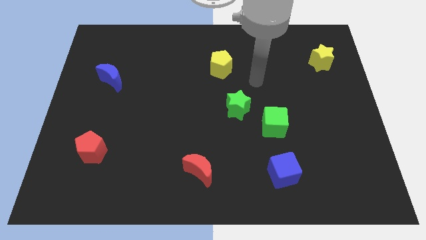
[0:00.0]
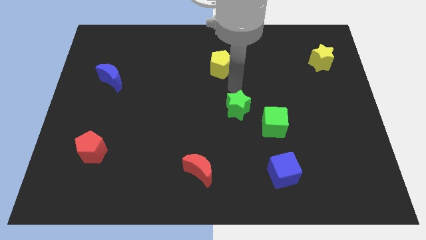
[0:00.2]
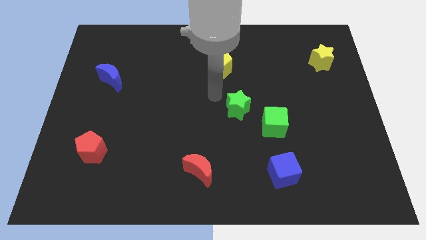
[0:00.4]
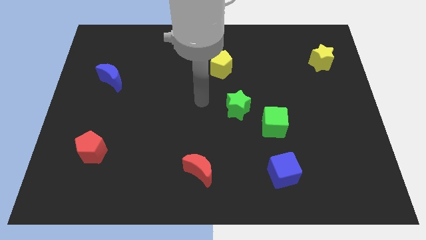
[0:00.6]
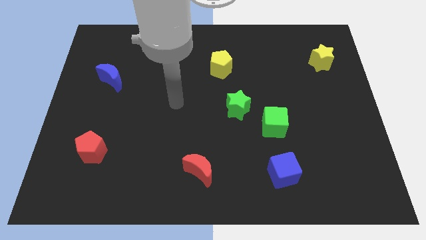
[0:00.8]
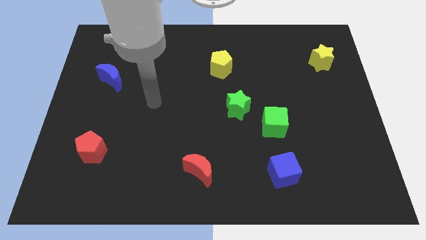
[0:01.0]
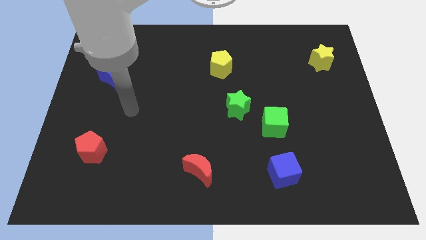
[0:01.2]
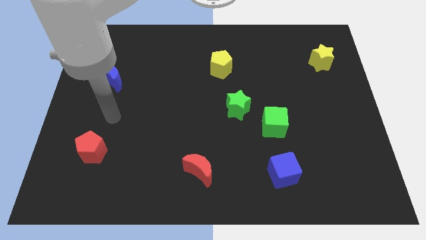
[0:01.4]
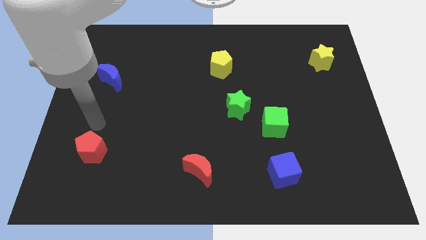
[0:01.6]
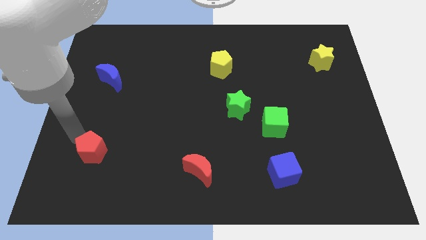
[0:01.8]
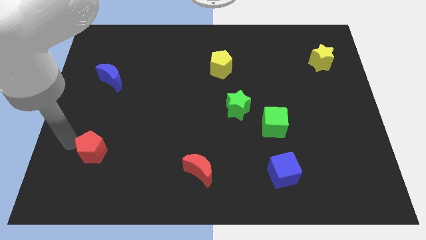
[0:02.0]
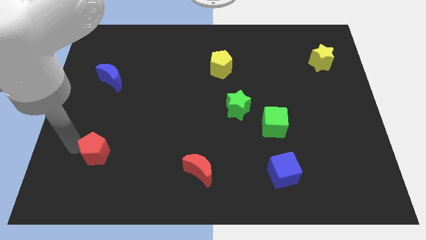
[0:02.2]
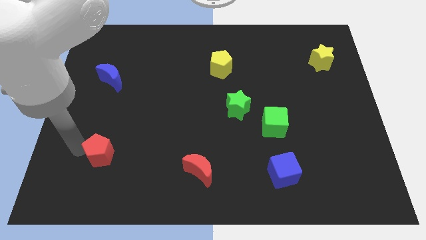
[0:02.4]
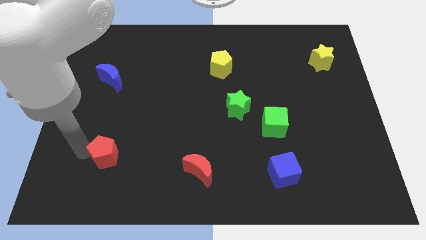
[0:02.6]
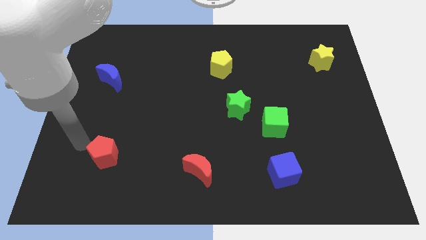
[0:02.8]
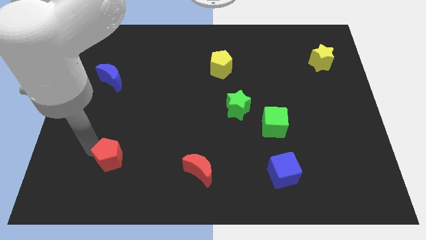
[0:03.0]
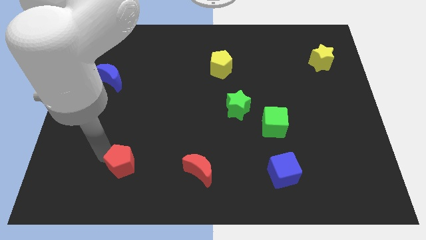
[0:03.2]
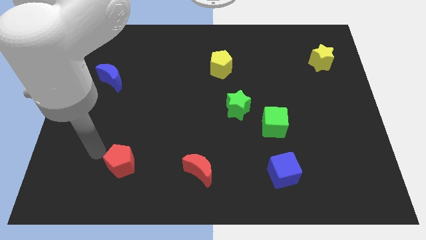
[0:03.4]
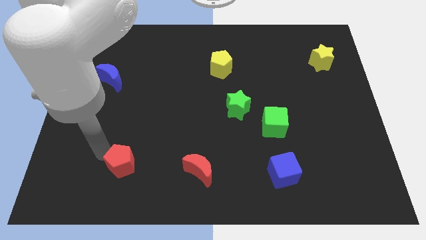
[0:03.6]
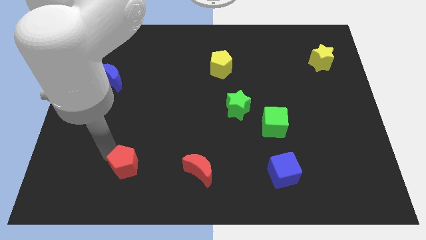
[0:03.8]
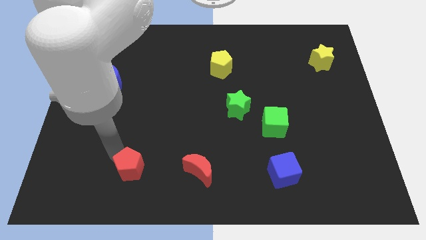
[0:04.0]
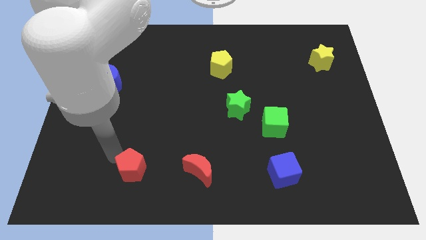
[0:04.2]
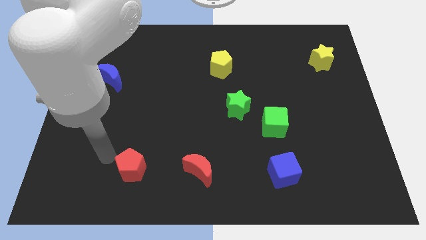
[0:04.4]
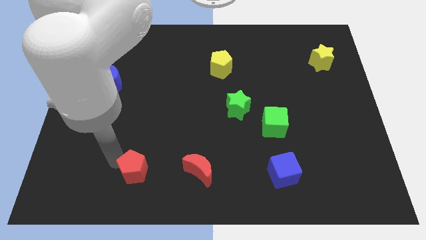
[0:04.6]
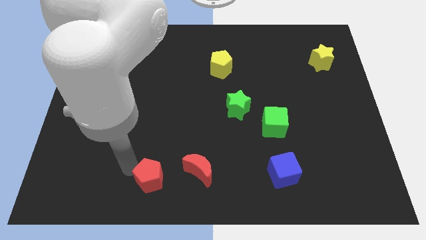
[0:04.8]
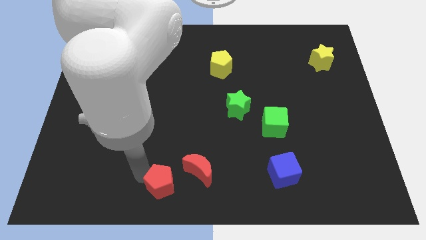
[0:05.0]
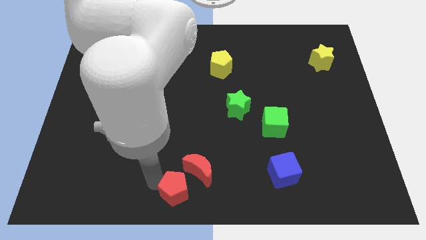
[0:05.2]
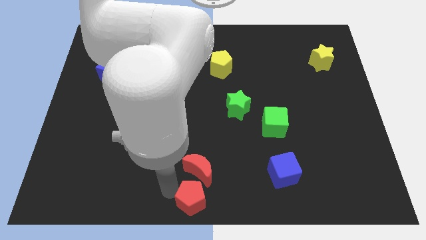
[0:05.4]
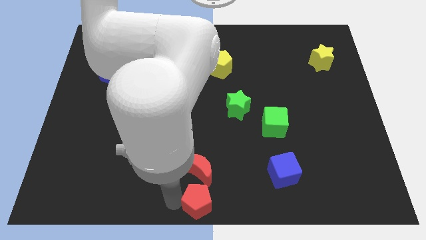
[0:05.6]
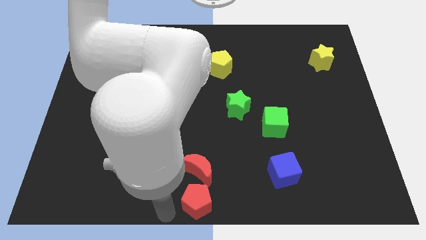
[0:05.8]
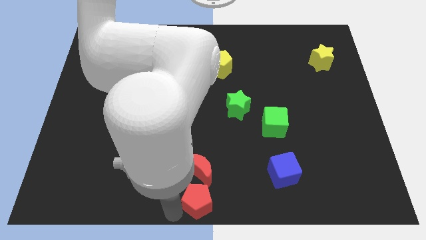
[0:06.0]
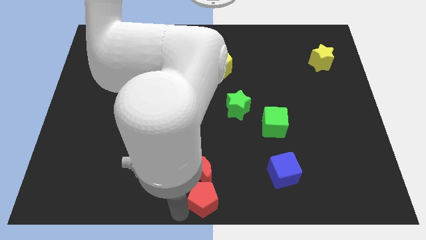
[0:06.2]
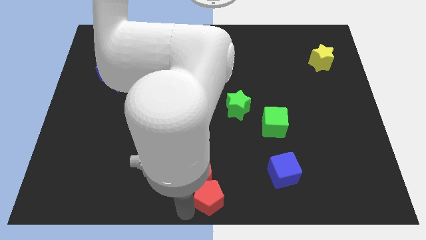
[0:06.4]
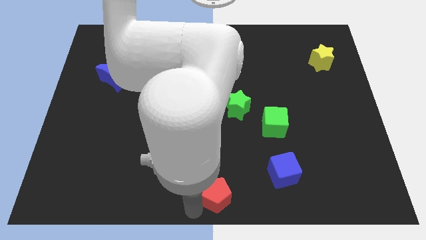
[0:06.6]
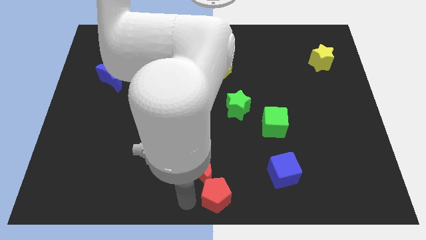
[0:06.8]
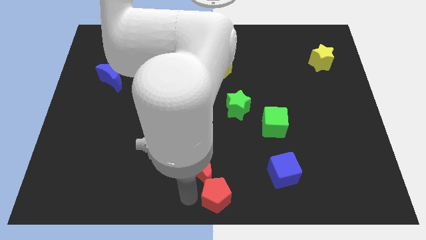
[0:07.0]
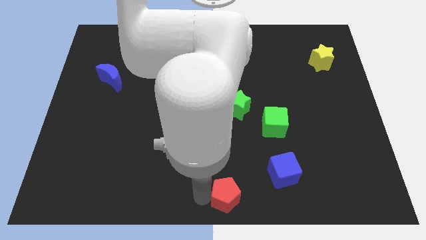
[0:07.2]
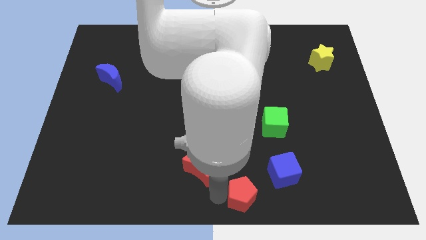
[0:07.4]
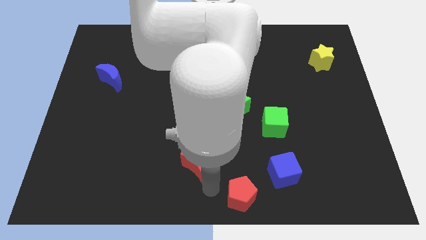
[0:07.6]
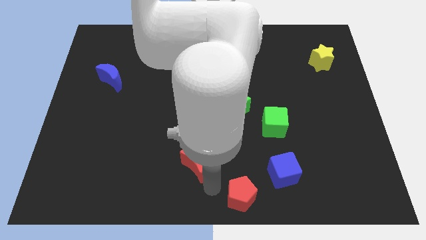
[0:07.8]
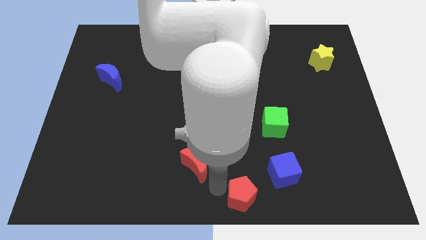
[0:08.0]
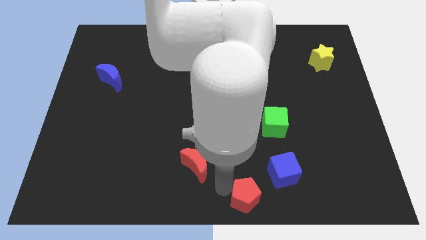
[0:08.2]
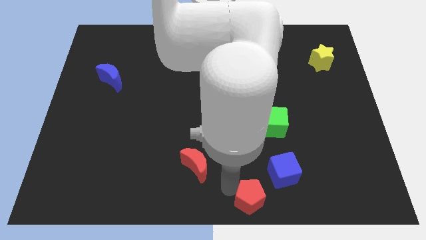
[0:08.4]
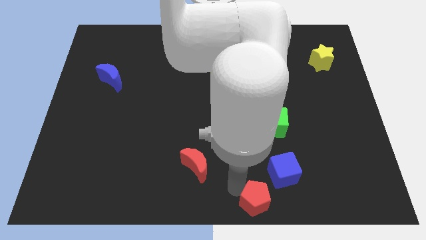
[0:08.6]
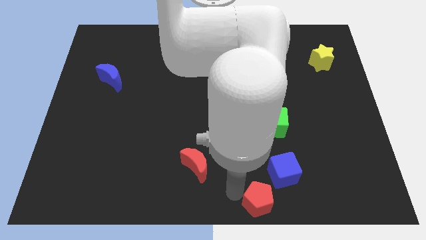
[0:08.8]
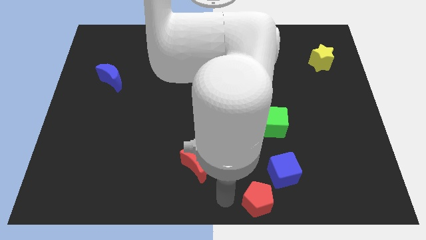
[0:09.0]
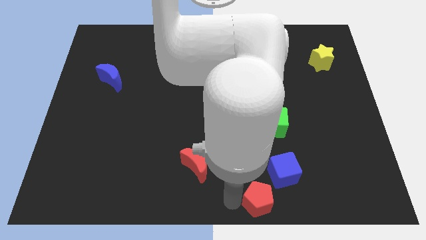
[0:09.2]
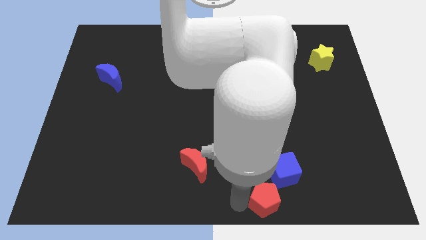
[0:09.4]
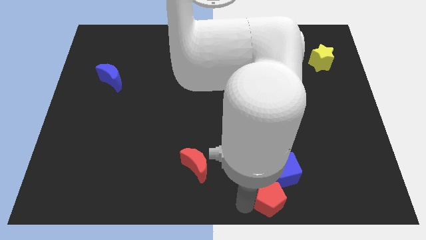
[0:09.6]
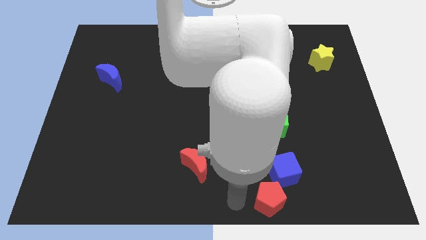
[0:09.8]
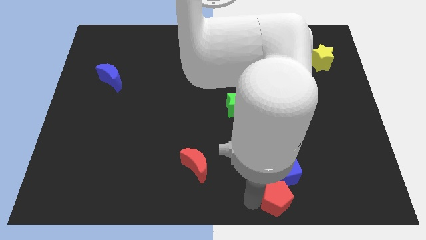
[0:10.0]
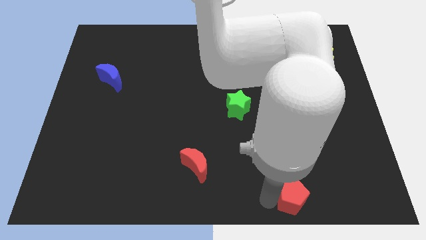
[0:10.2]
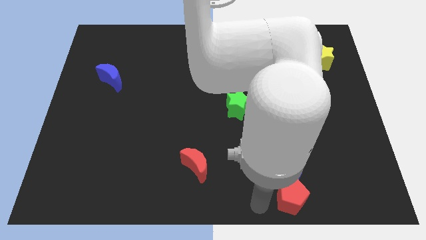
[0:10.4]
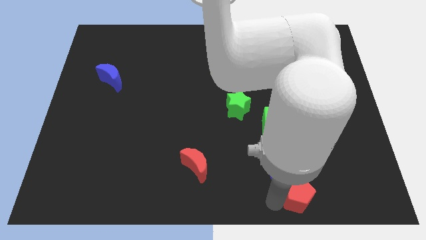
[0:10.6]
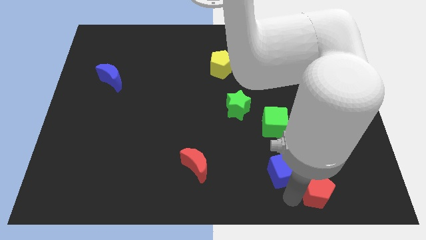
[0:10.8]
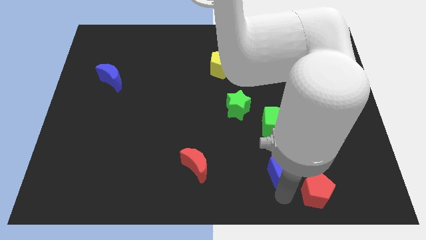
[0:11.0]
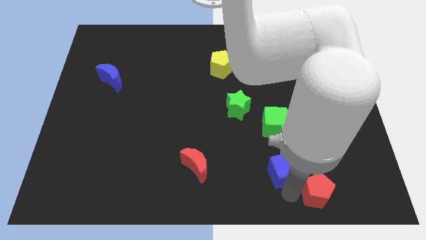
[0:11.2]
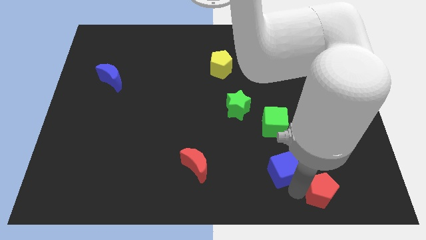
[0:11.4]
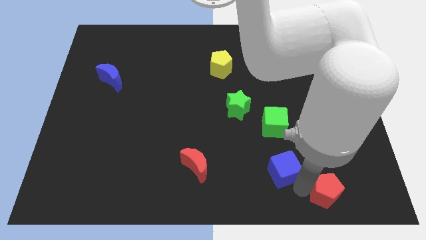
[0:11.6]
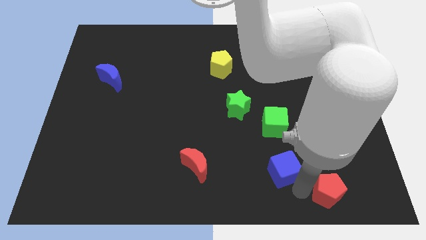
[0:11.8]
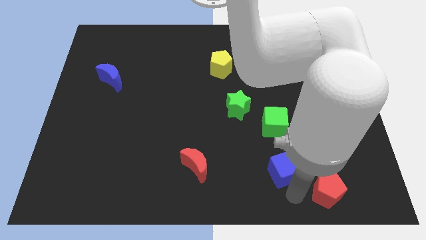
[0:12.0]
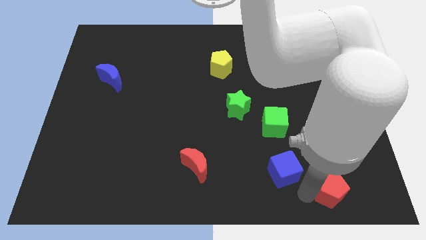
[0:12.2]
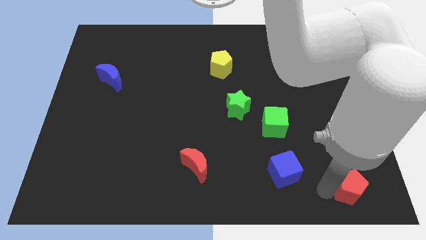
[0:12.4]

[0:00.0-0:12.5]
push the red pentagon to the lower right corner
